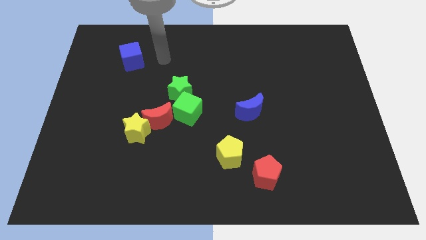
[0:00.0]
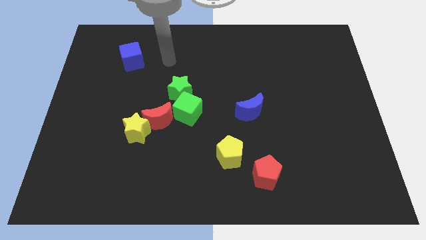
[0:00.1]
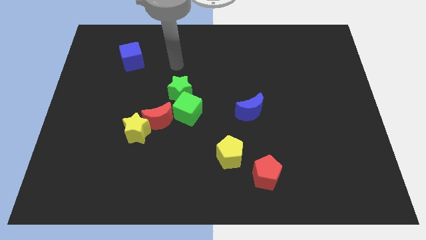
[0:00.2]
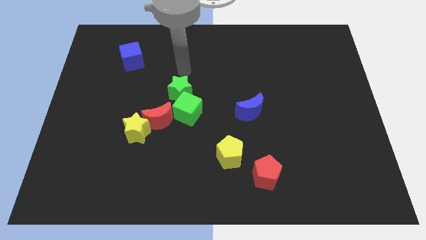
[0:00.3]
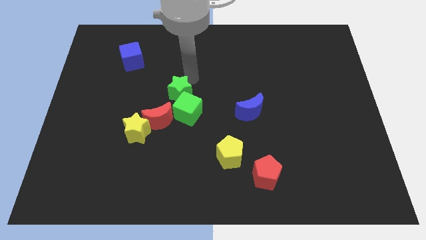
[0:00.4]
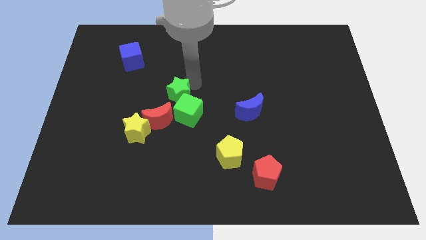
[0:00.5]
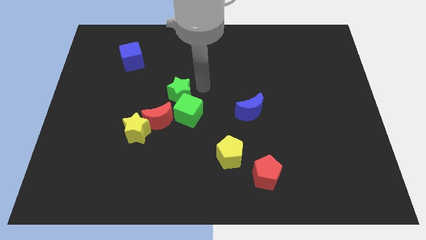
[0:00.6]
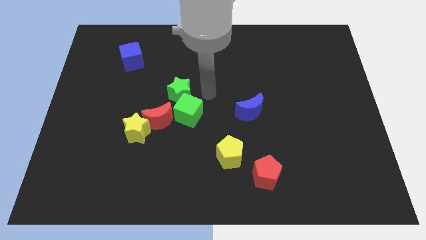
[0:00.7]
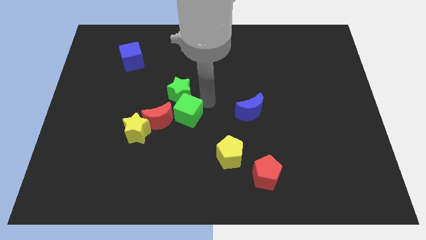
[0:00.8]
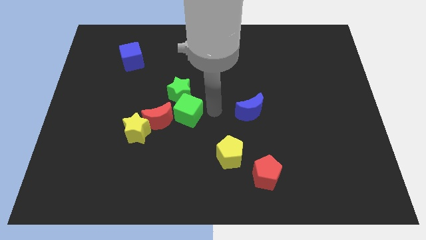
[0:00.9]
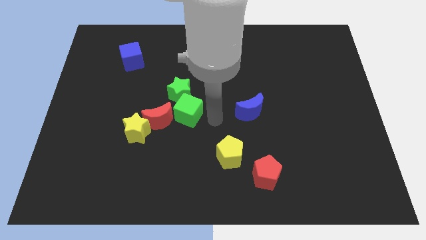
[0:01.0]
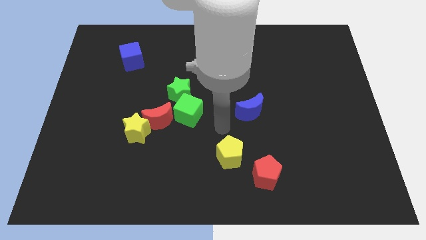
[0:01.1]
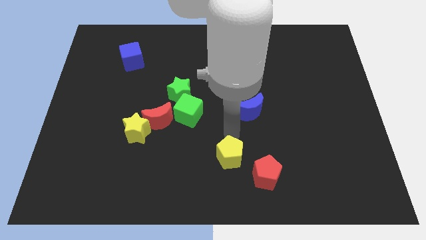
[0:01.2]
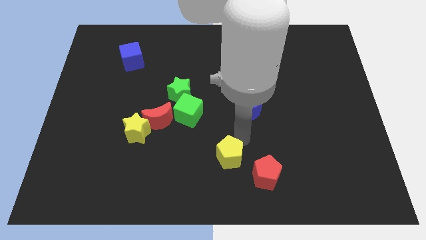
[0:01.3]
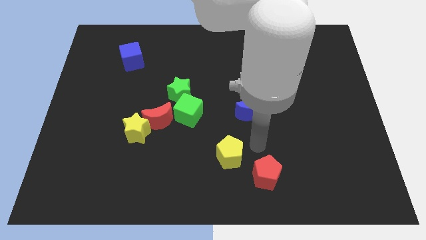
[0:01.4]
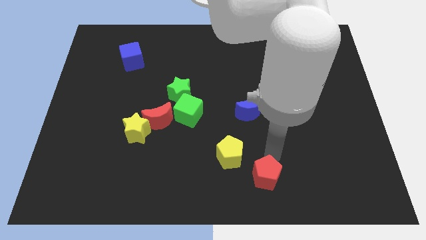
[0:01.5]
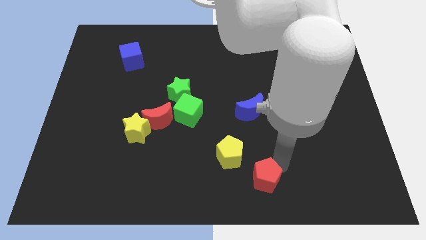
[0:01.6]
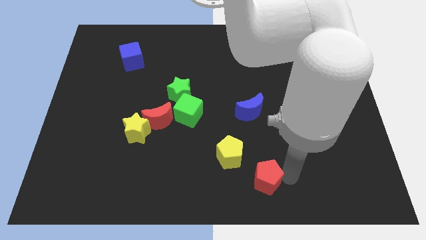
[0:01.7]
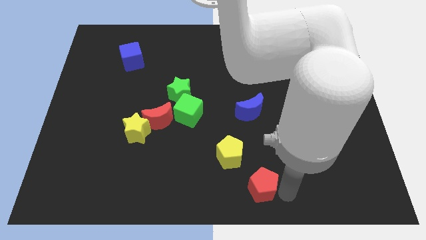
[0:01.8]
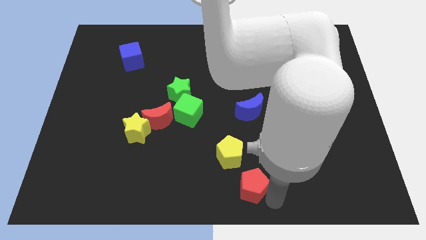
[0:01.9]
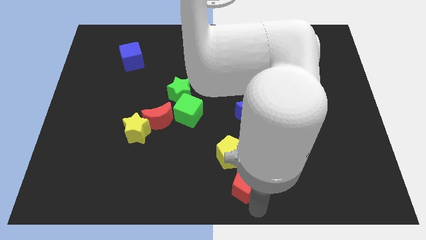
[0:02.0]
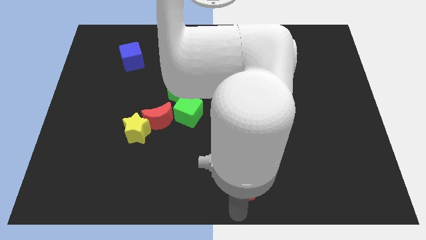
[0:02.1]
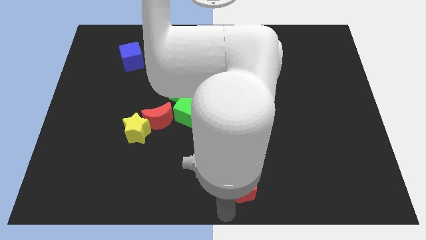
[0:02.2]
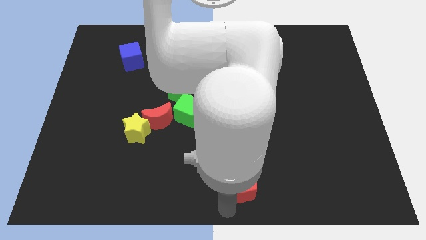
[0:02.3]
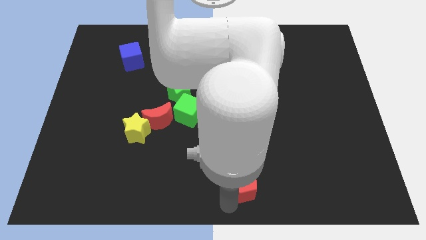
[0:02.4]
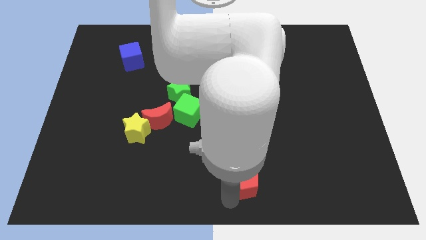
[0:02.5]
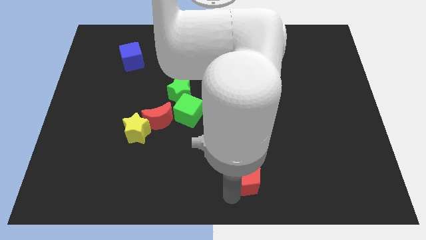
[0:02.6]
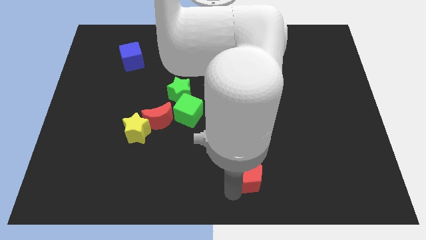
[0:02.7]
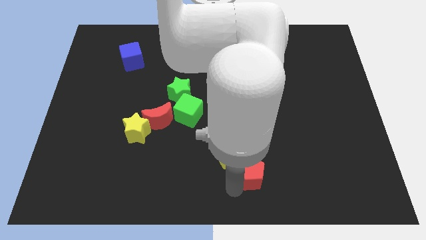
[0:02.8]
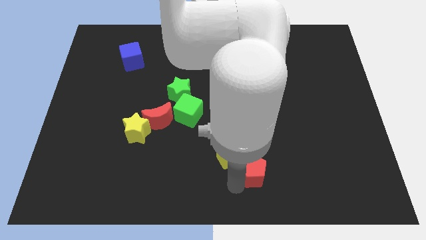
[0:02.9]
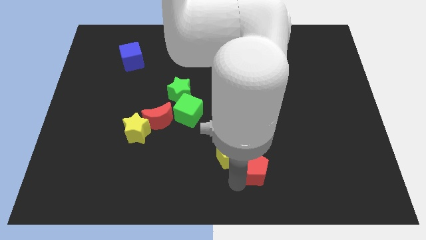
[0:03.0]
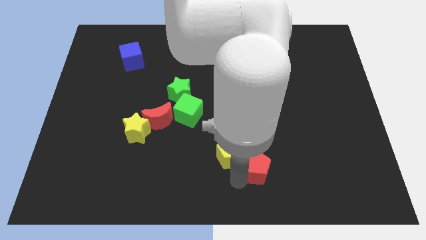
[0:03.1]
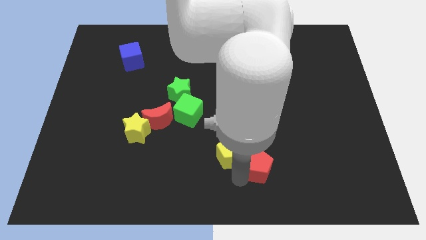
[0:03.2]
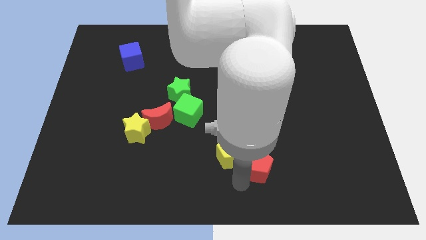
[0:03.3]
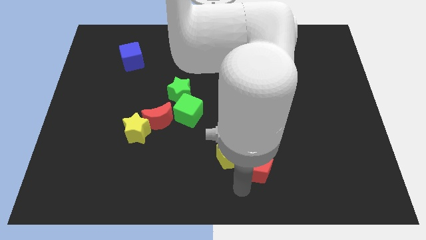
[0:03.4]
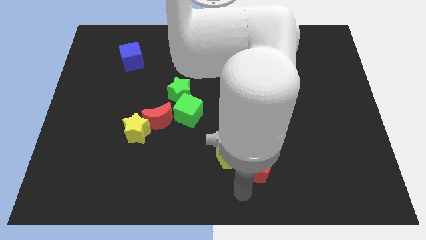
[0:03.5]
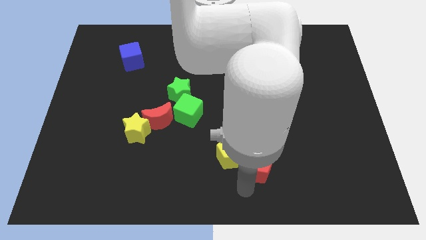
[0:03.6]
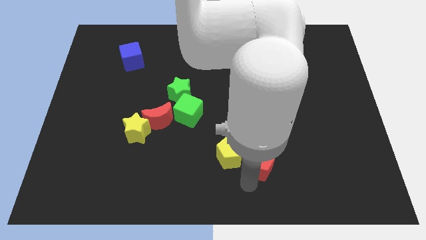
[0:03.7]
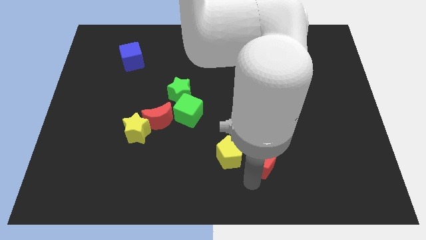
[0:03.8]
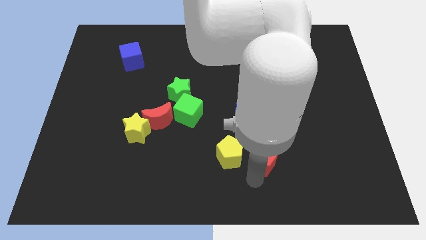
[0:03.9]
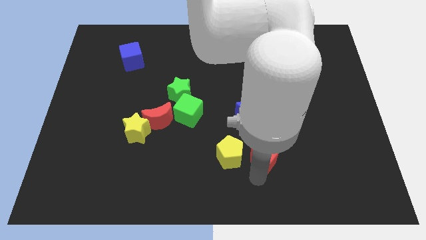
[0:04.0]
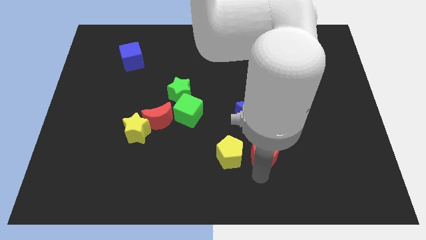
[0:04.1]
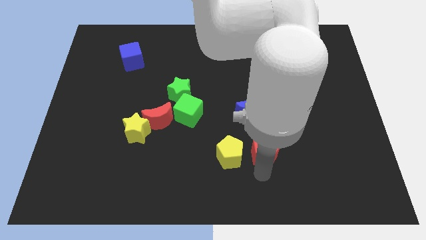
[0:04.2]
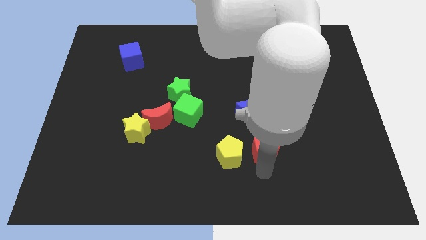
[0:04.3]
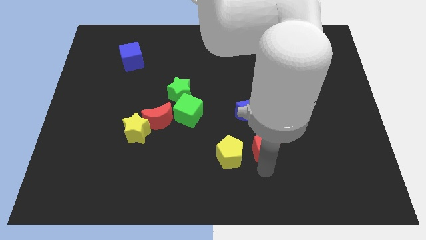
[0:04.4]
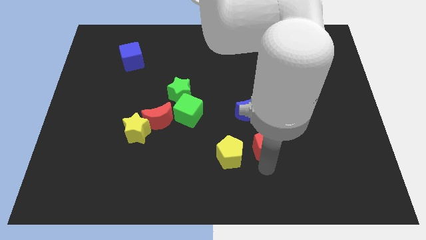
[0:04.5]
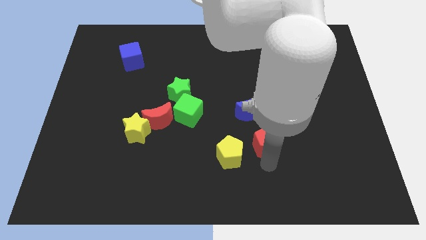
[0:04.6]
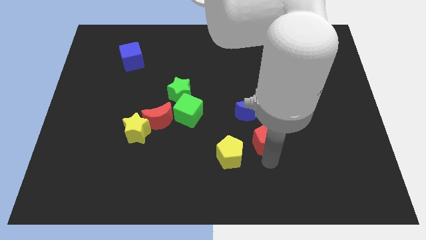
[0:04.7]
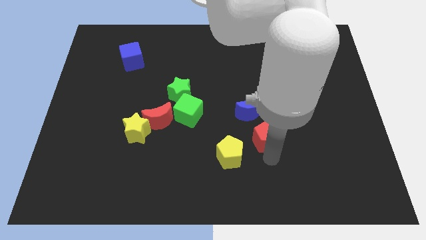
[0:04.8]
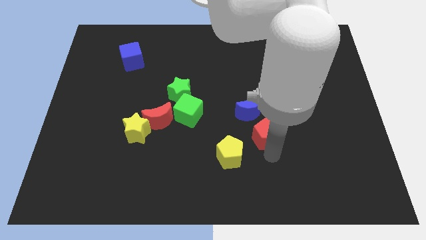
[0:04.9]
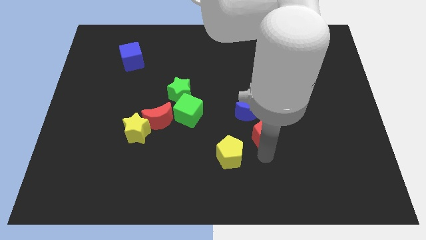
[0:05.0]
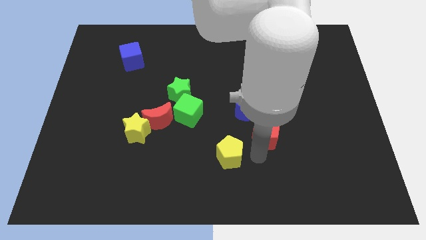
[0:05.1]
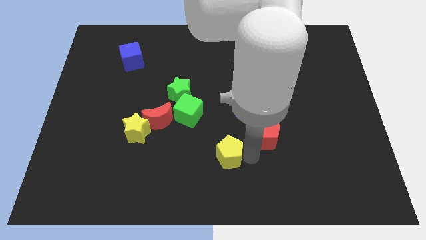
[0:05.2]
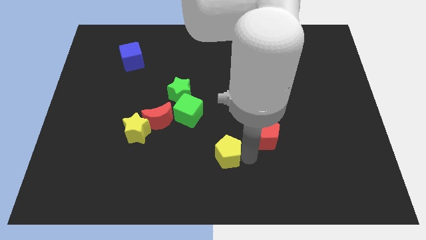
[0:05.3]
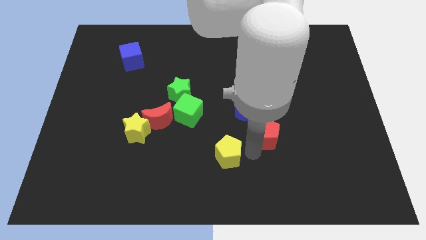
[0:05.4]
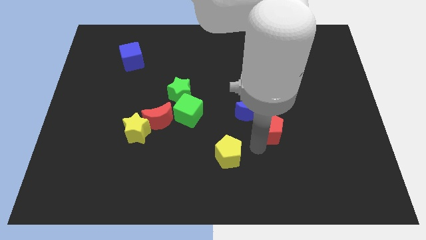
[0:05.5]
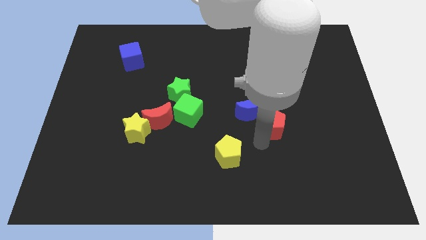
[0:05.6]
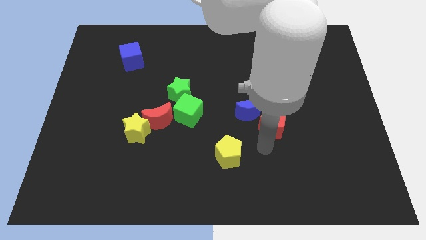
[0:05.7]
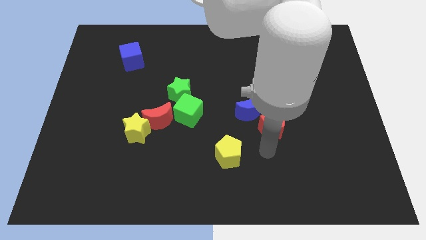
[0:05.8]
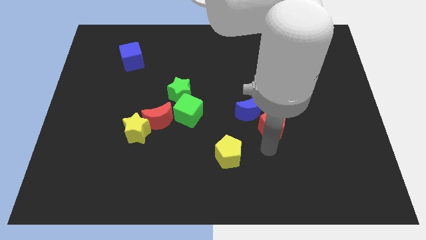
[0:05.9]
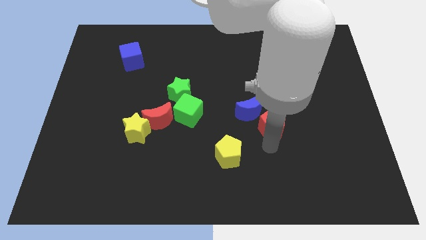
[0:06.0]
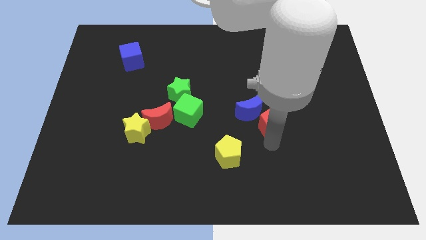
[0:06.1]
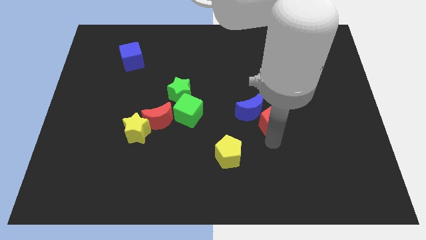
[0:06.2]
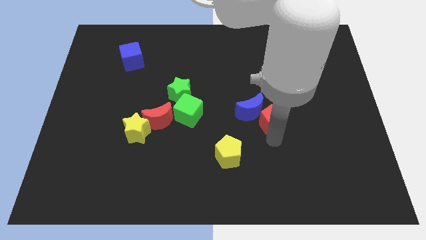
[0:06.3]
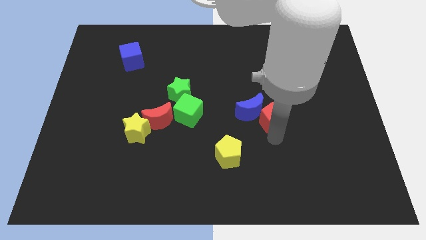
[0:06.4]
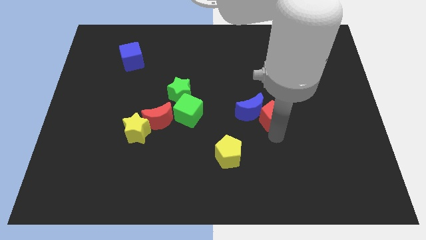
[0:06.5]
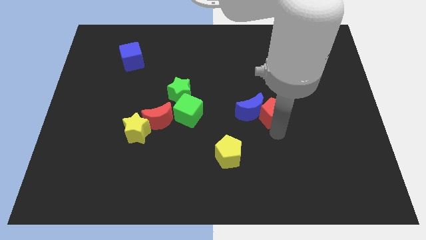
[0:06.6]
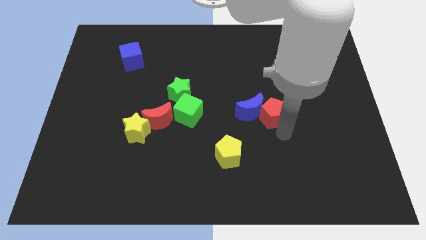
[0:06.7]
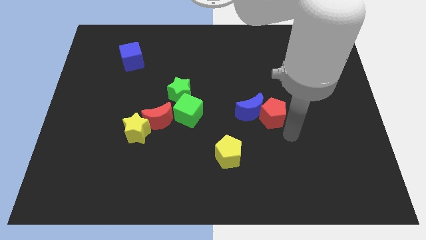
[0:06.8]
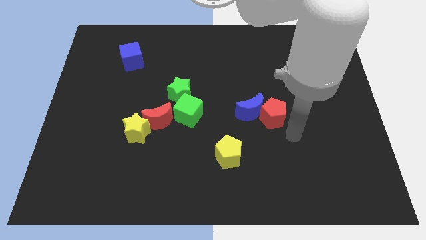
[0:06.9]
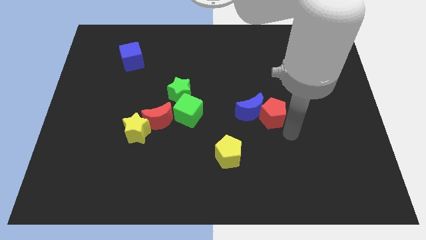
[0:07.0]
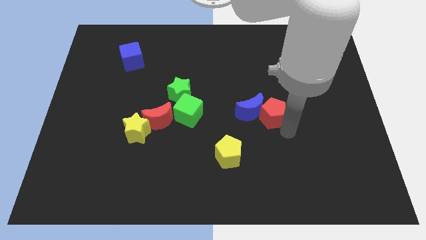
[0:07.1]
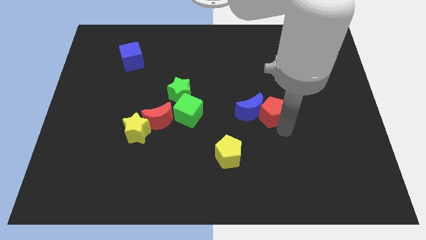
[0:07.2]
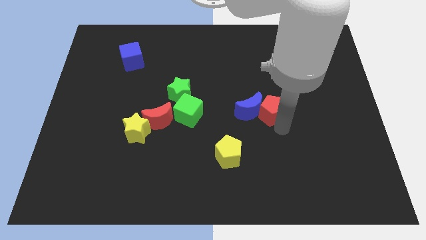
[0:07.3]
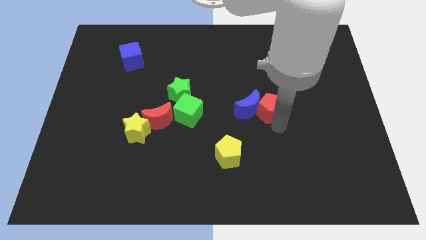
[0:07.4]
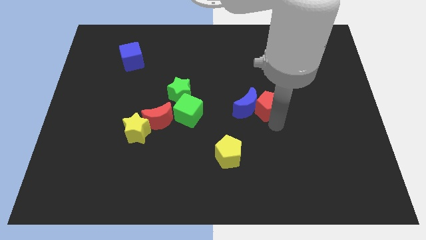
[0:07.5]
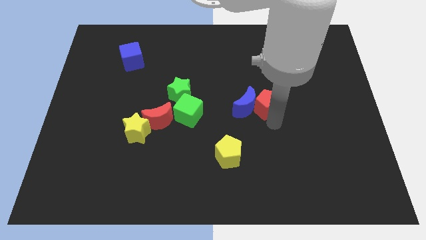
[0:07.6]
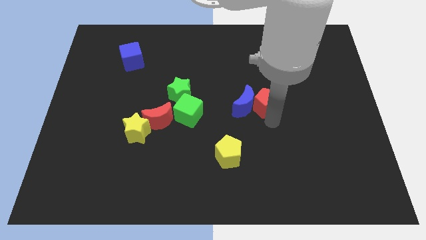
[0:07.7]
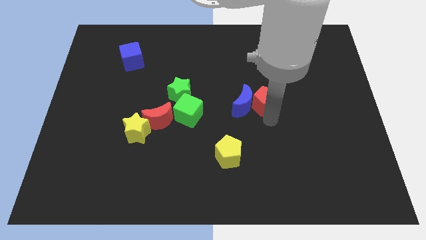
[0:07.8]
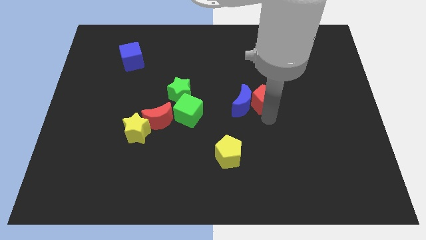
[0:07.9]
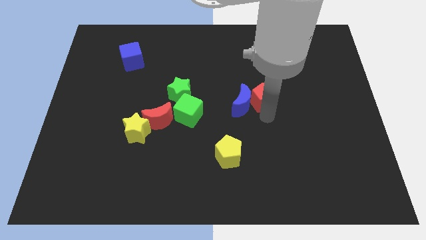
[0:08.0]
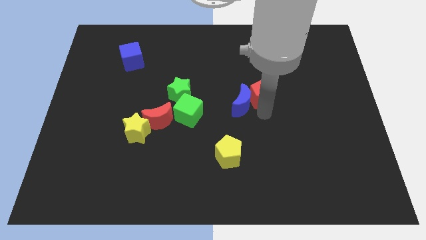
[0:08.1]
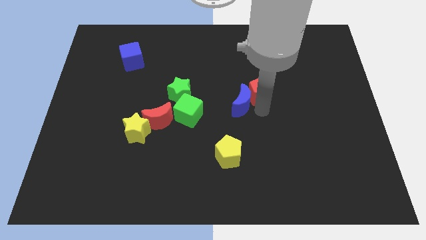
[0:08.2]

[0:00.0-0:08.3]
push the red pentagon to the top side of the blue moon
